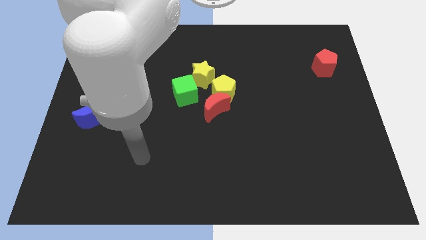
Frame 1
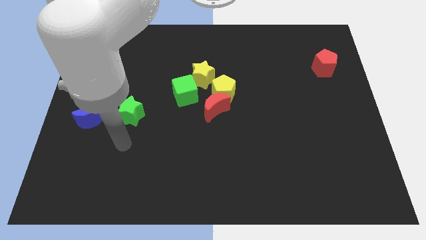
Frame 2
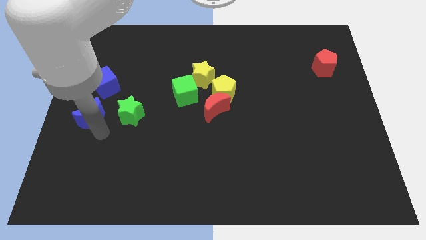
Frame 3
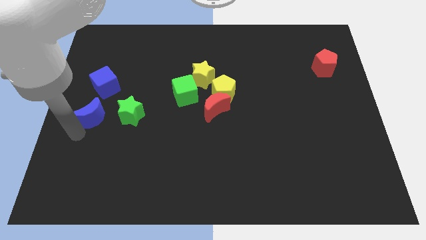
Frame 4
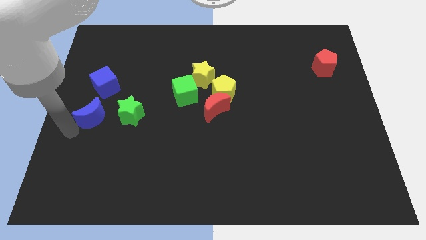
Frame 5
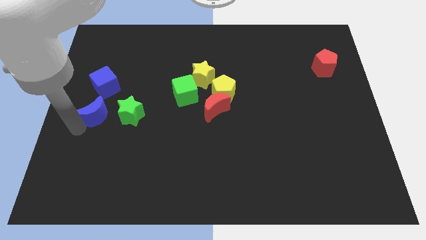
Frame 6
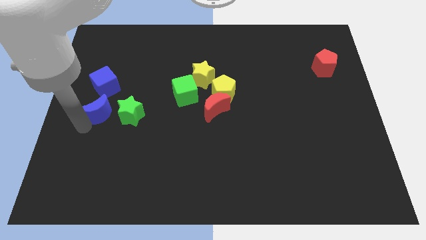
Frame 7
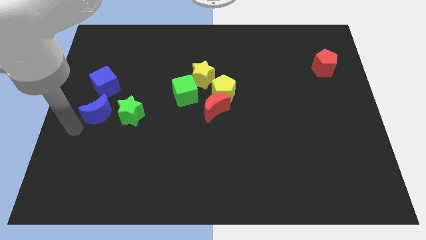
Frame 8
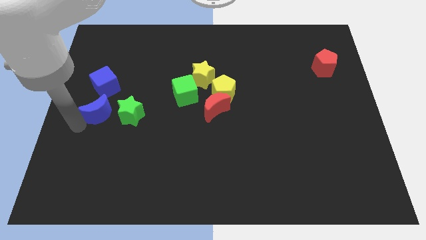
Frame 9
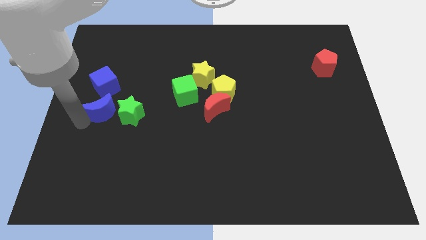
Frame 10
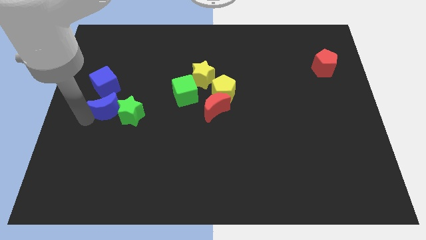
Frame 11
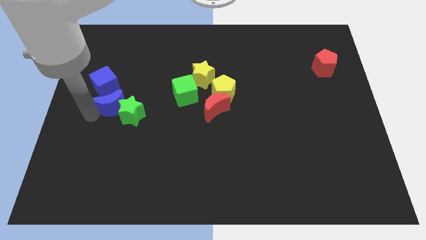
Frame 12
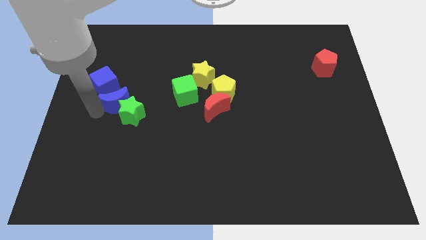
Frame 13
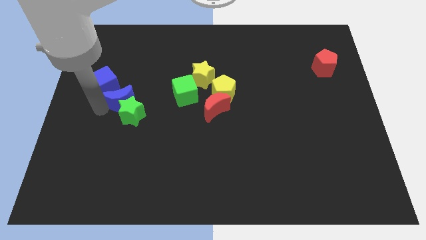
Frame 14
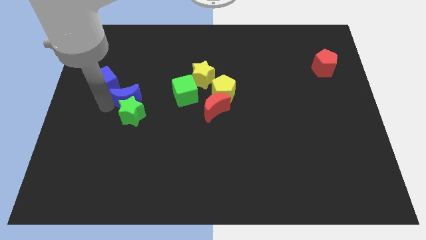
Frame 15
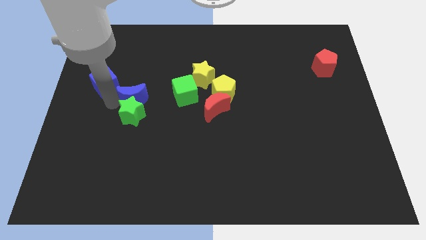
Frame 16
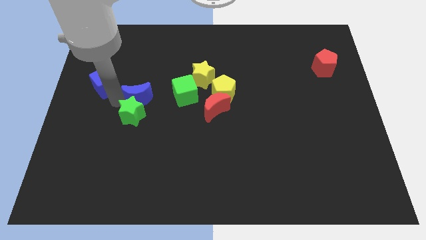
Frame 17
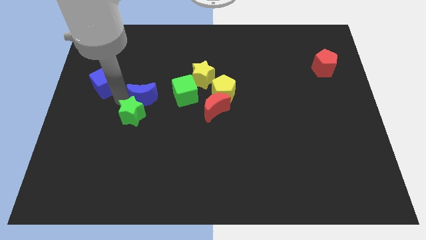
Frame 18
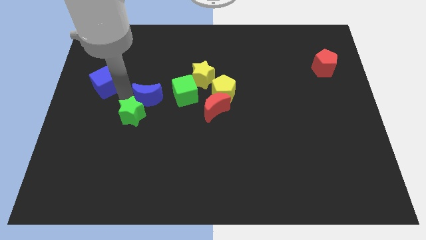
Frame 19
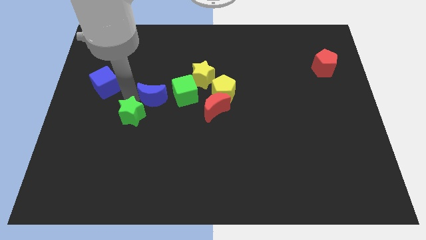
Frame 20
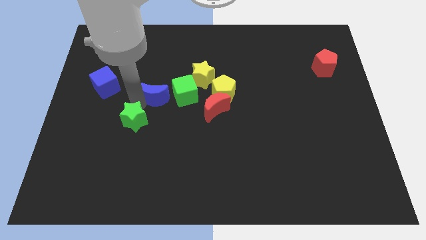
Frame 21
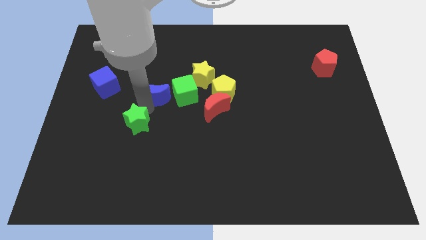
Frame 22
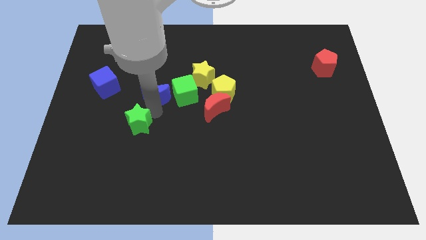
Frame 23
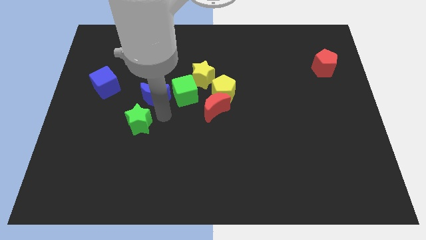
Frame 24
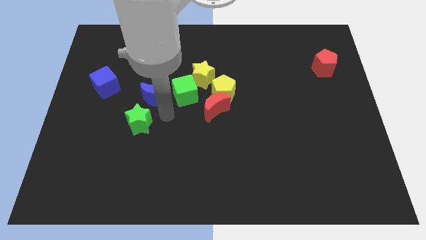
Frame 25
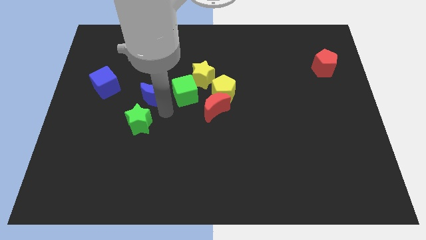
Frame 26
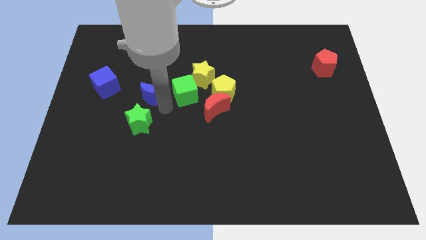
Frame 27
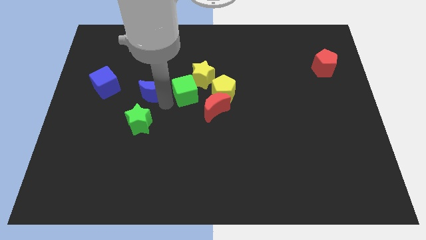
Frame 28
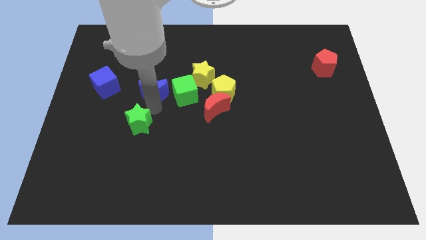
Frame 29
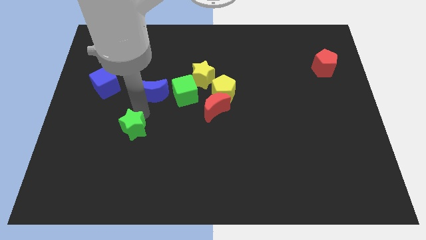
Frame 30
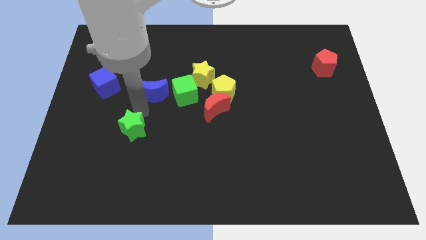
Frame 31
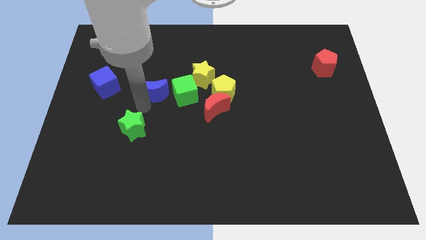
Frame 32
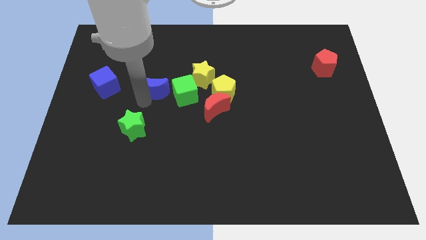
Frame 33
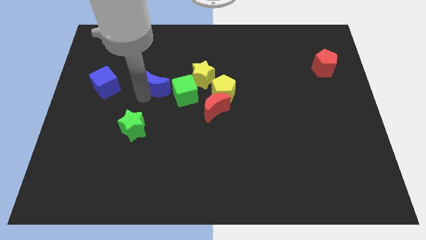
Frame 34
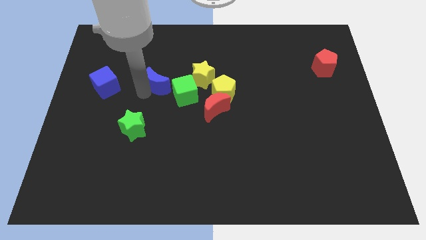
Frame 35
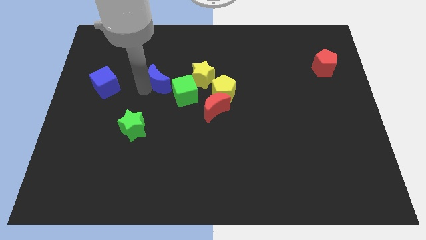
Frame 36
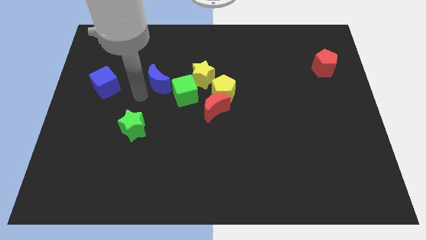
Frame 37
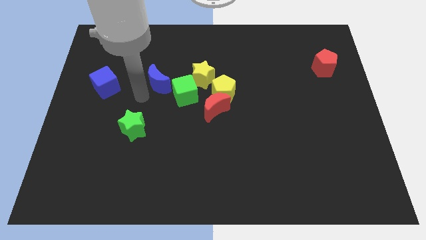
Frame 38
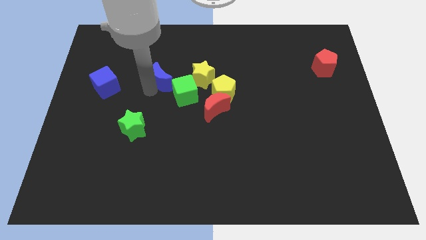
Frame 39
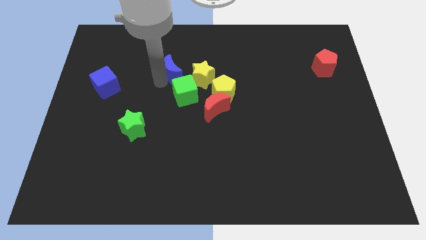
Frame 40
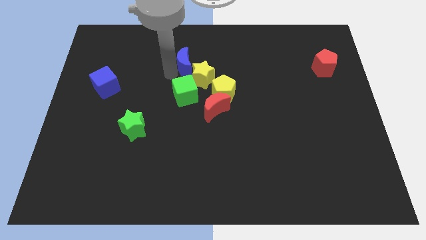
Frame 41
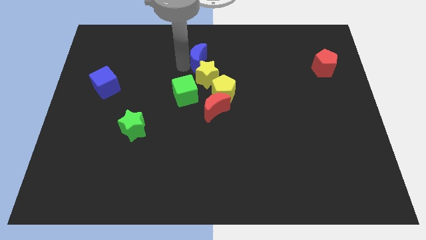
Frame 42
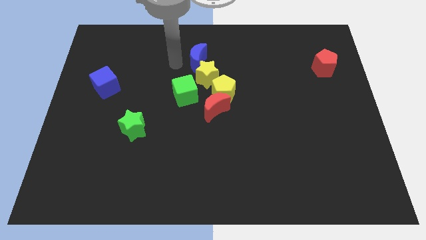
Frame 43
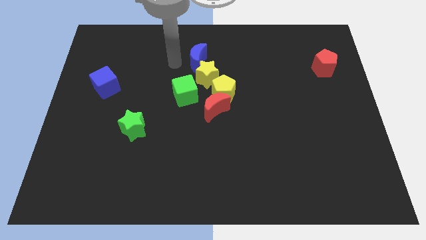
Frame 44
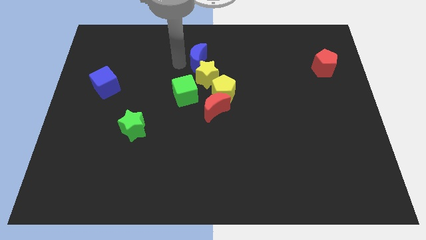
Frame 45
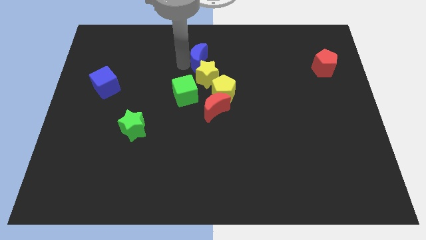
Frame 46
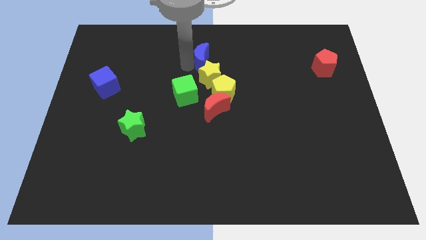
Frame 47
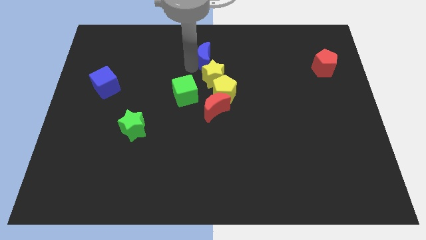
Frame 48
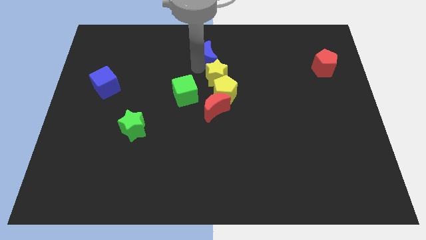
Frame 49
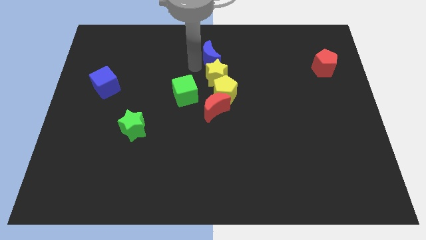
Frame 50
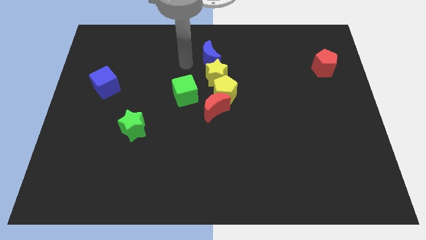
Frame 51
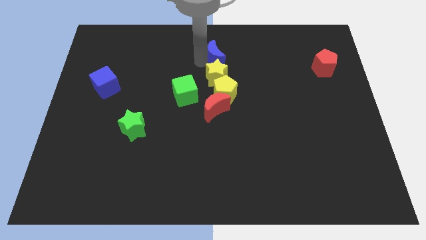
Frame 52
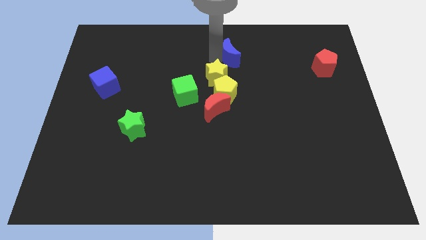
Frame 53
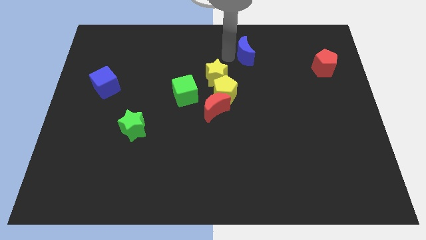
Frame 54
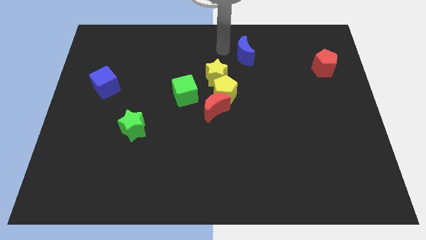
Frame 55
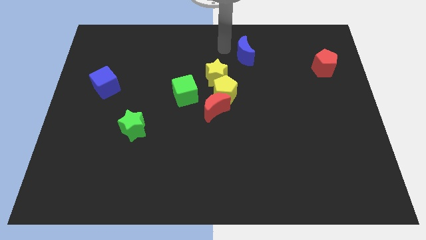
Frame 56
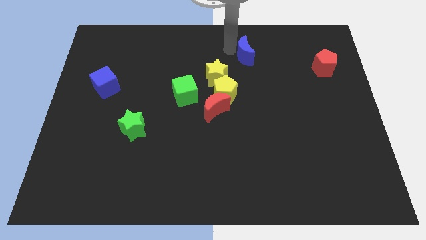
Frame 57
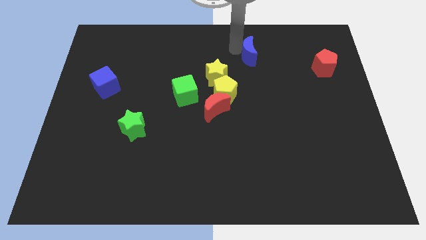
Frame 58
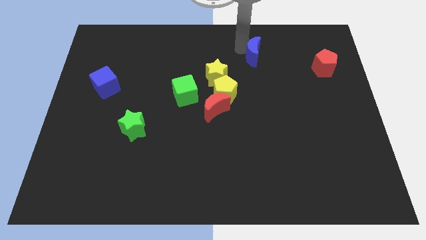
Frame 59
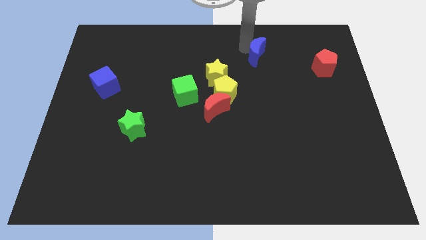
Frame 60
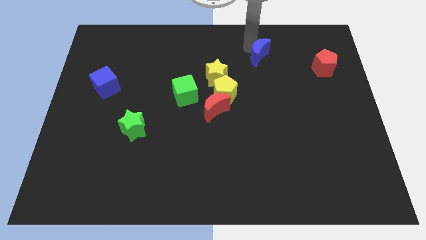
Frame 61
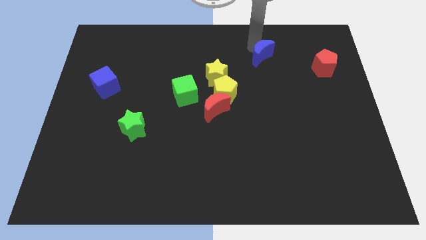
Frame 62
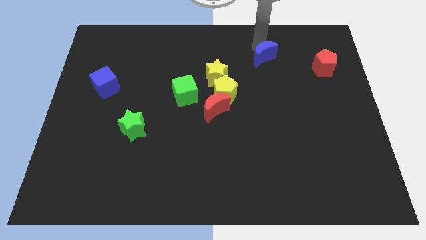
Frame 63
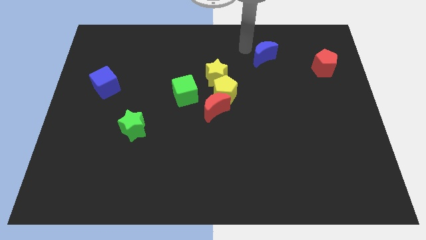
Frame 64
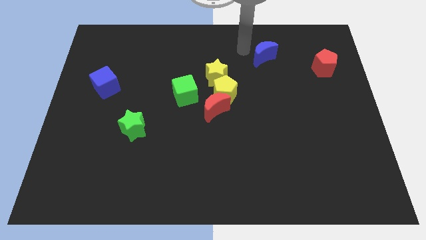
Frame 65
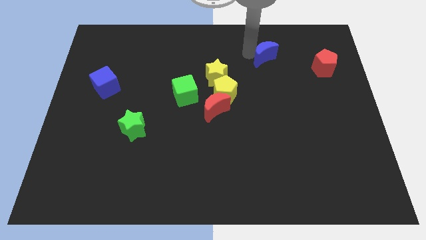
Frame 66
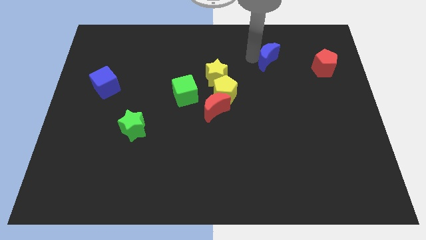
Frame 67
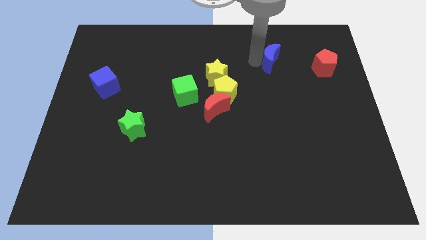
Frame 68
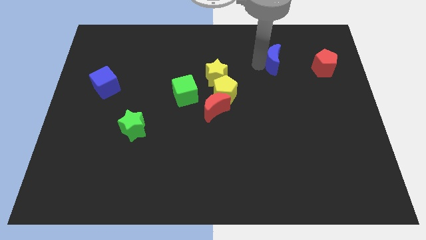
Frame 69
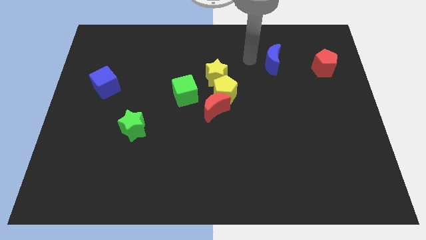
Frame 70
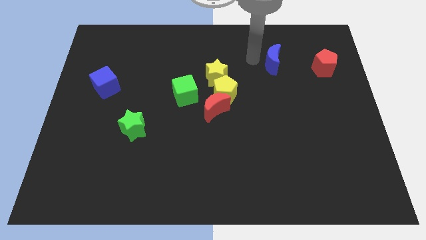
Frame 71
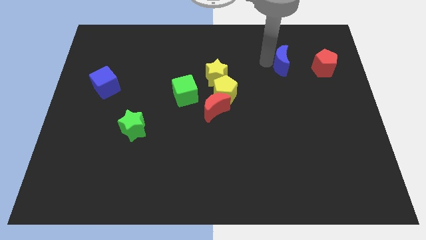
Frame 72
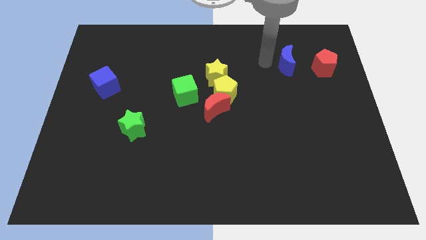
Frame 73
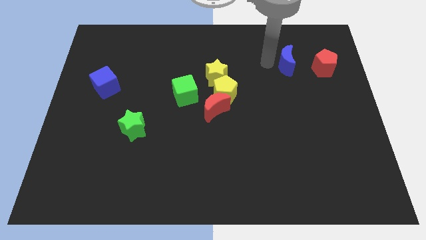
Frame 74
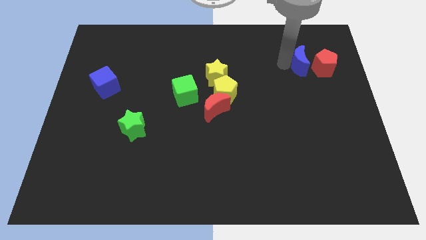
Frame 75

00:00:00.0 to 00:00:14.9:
move the blue moon to the red pentagon

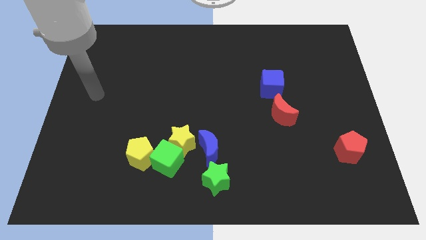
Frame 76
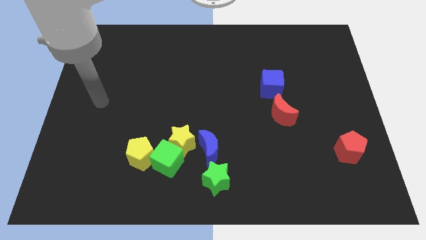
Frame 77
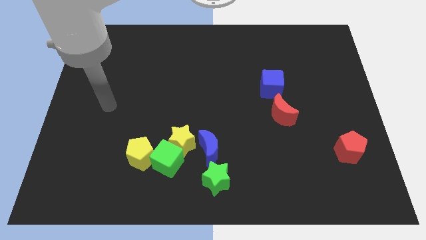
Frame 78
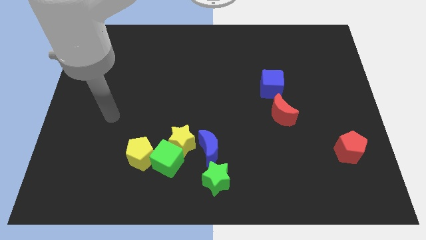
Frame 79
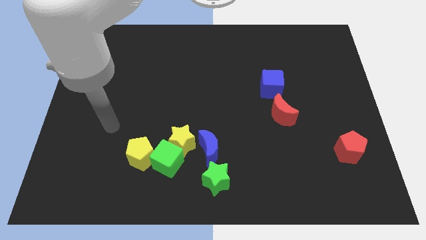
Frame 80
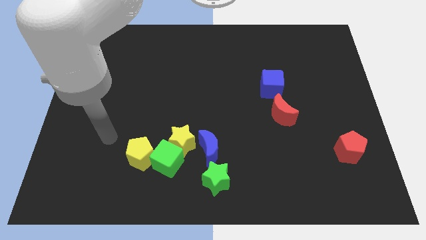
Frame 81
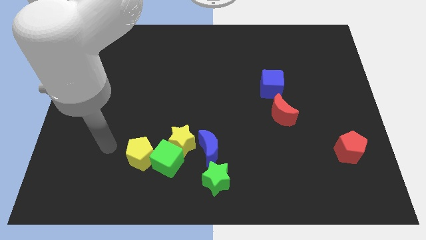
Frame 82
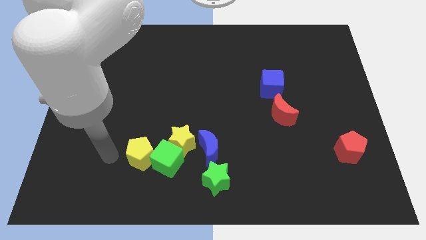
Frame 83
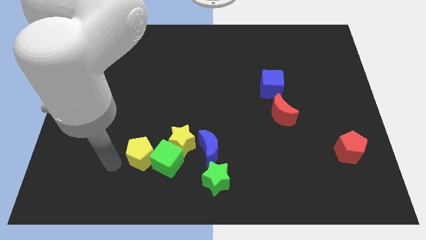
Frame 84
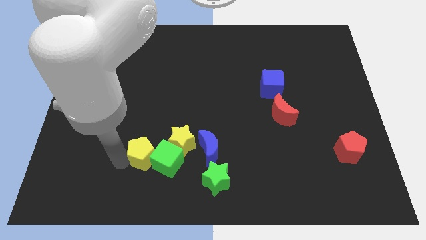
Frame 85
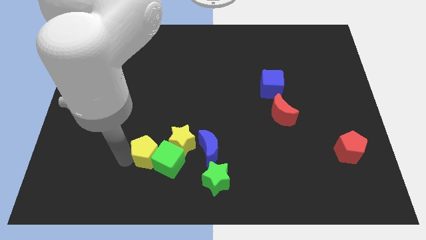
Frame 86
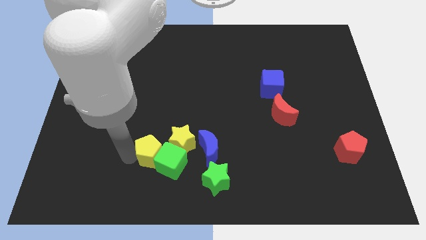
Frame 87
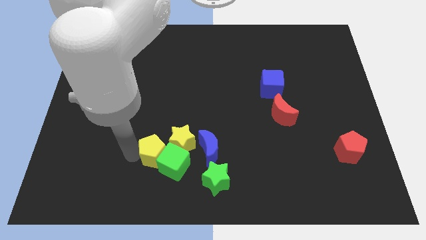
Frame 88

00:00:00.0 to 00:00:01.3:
push the yellow pentagon towards the yellow star
